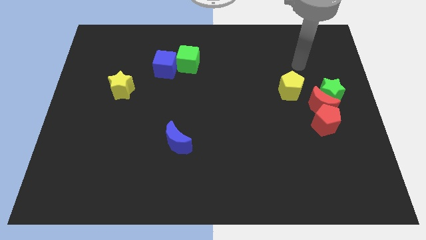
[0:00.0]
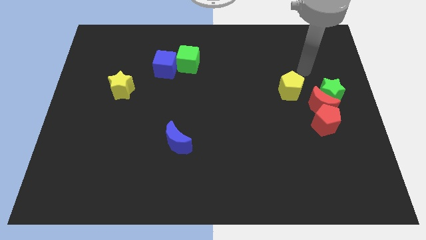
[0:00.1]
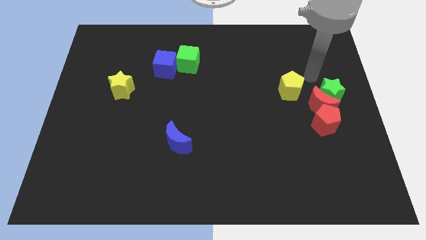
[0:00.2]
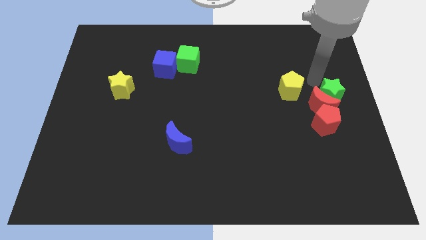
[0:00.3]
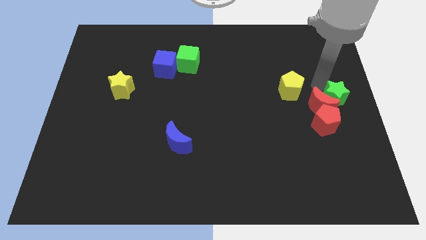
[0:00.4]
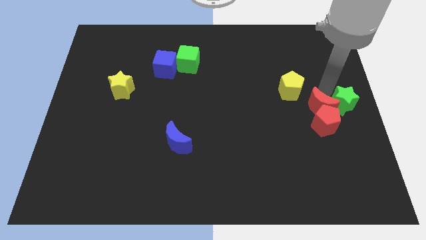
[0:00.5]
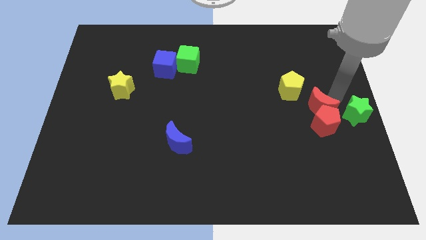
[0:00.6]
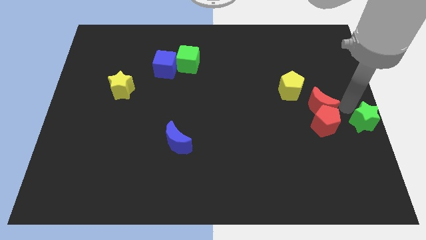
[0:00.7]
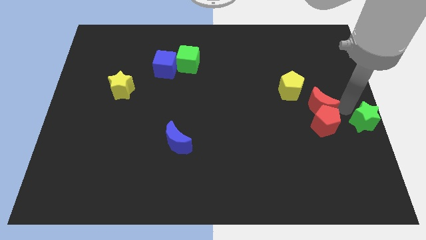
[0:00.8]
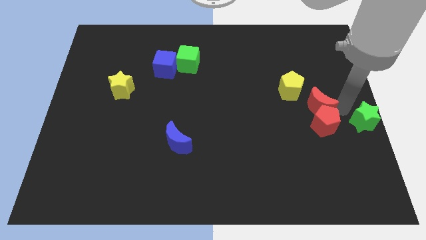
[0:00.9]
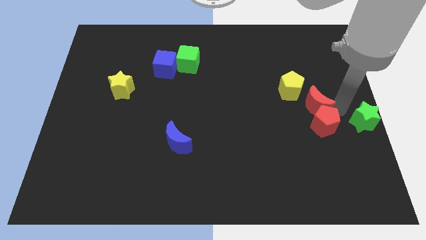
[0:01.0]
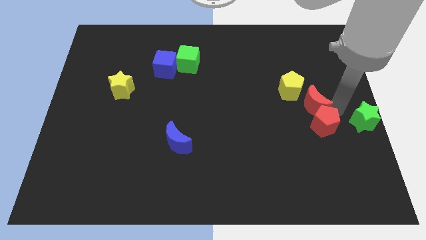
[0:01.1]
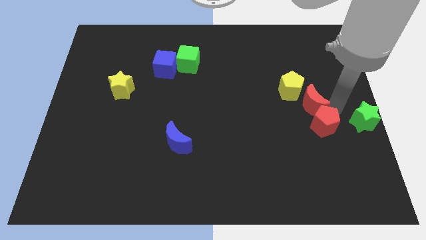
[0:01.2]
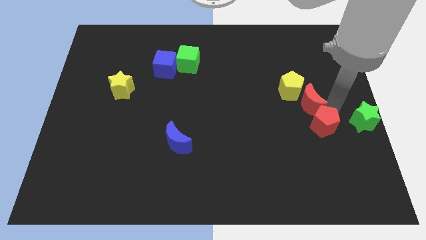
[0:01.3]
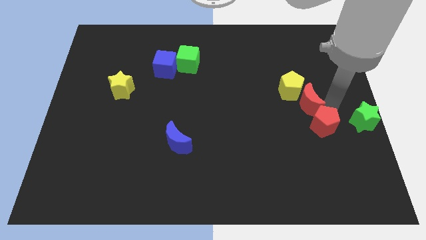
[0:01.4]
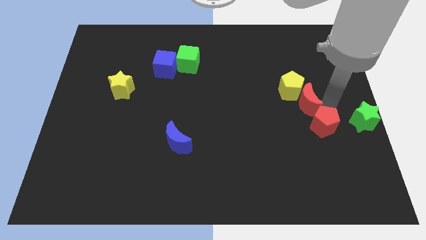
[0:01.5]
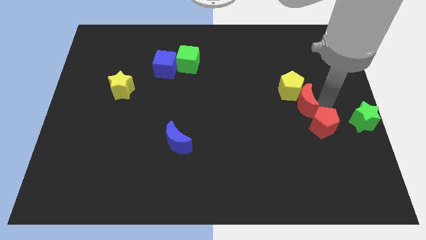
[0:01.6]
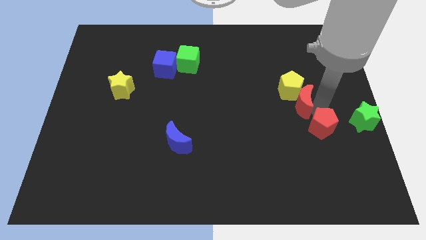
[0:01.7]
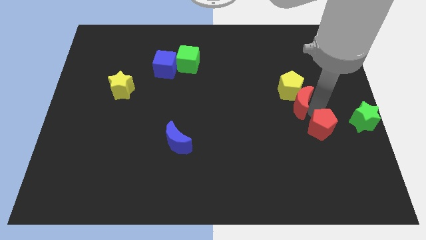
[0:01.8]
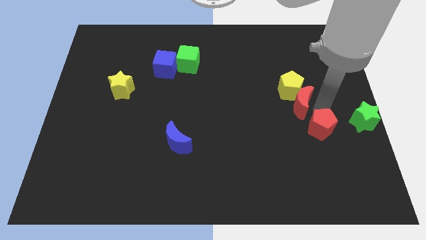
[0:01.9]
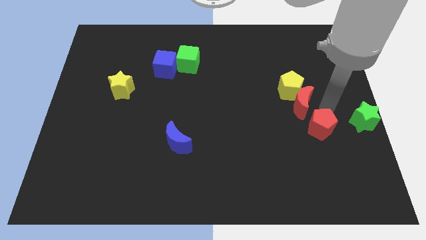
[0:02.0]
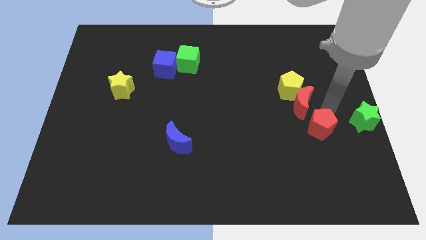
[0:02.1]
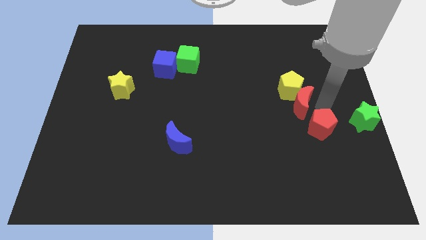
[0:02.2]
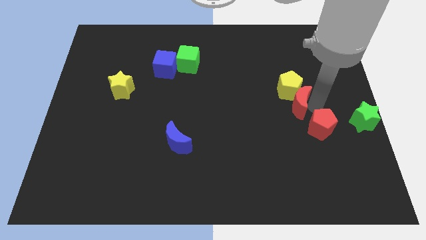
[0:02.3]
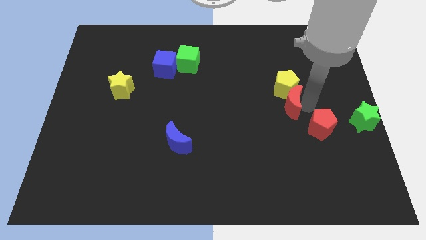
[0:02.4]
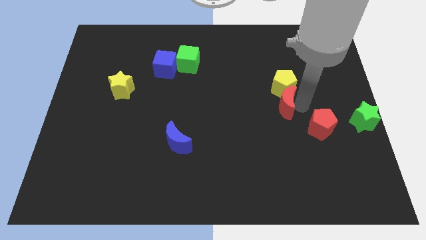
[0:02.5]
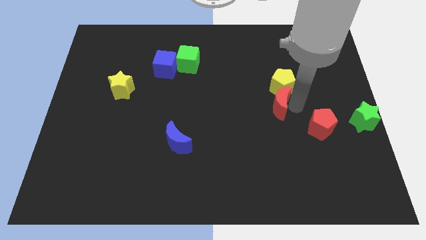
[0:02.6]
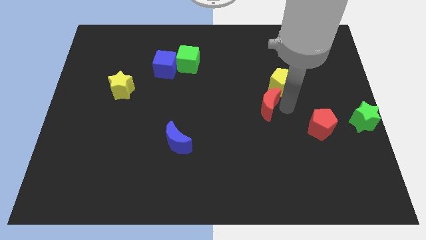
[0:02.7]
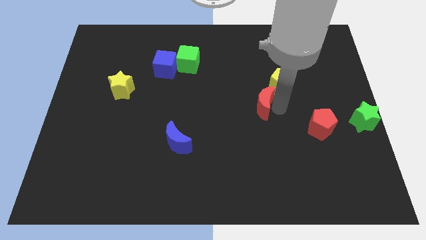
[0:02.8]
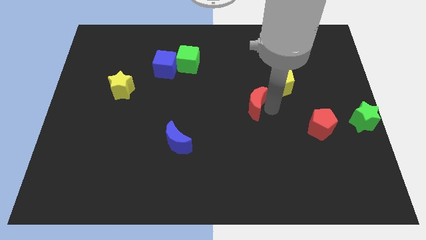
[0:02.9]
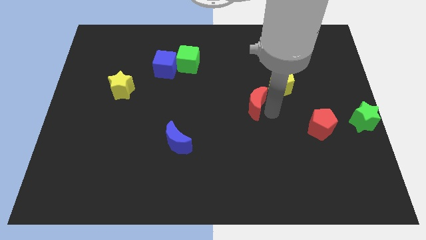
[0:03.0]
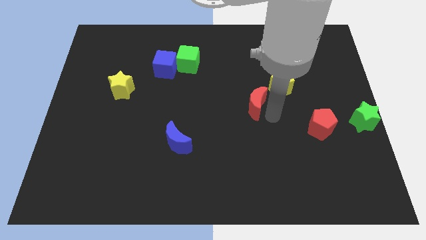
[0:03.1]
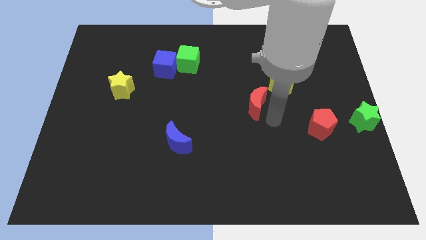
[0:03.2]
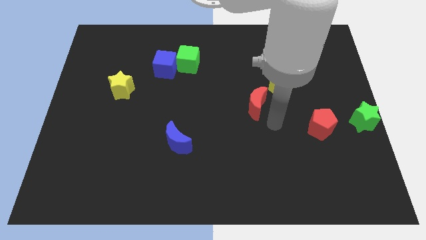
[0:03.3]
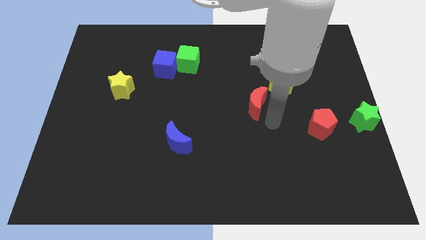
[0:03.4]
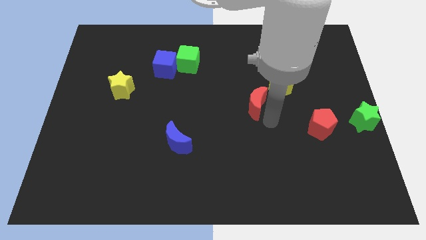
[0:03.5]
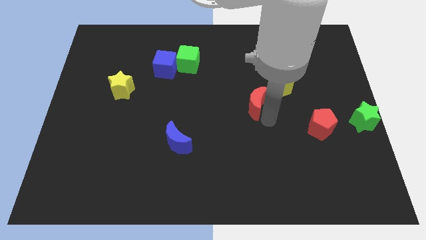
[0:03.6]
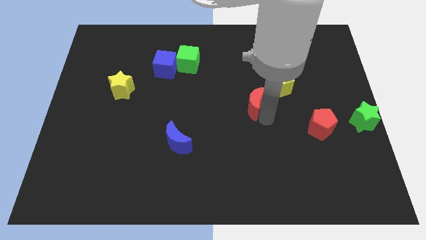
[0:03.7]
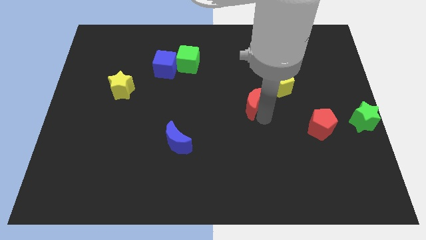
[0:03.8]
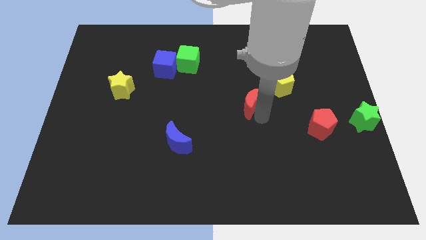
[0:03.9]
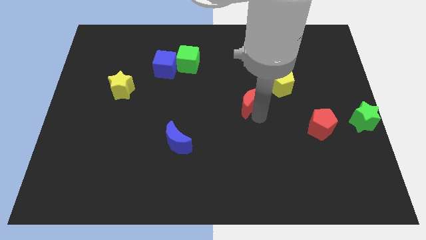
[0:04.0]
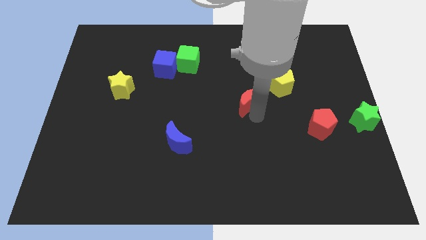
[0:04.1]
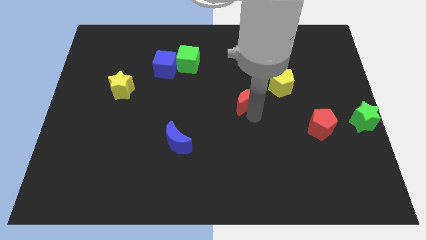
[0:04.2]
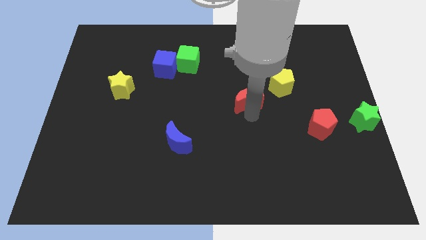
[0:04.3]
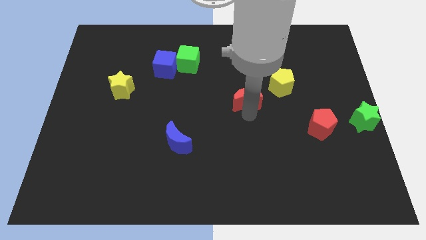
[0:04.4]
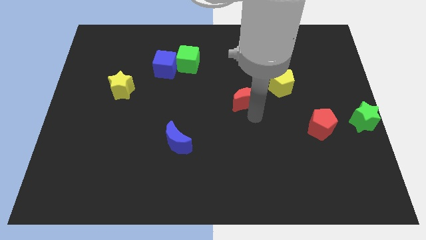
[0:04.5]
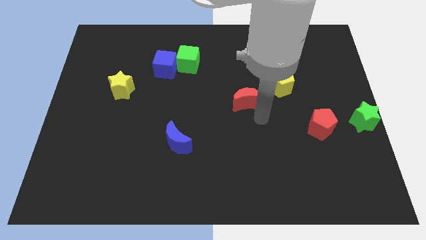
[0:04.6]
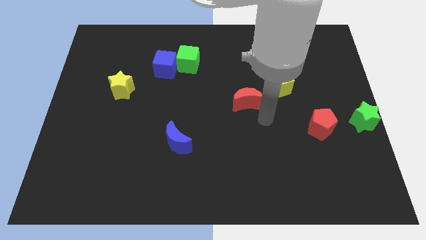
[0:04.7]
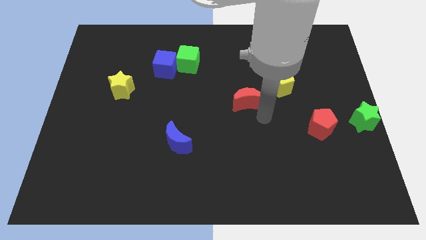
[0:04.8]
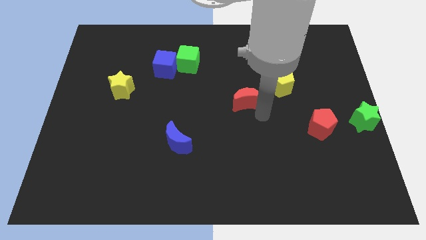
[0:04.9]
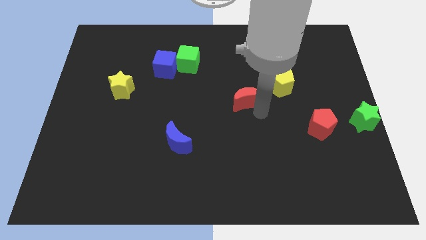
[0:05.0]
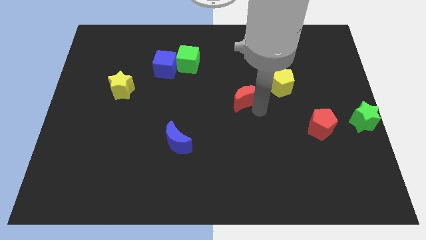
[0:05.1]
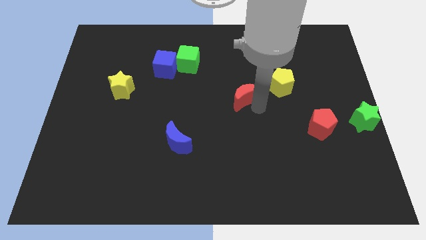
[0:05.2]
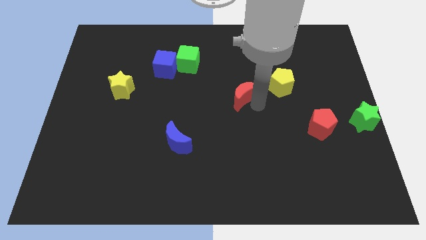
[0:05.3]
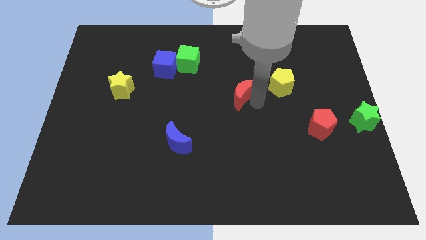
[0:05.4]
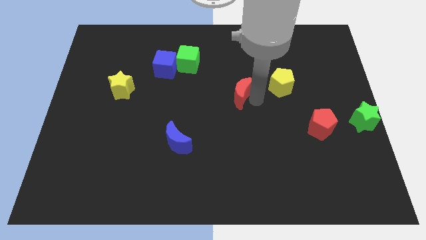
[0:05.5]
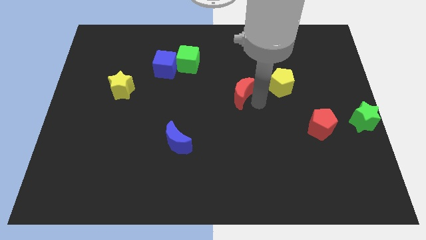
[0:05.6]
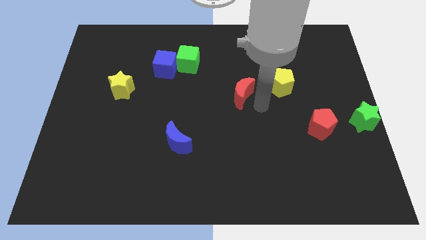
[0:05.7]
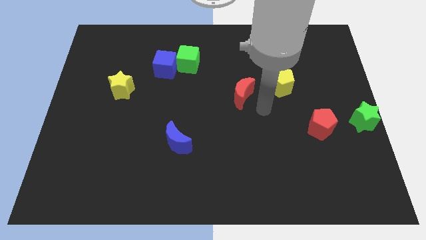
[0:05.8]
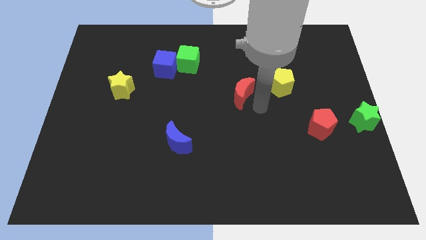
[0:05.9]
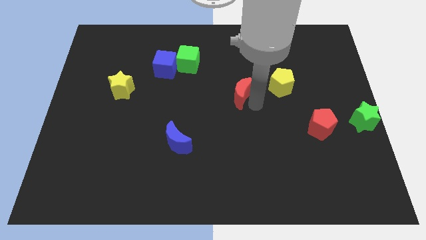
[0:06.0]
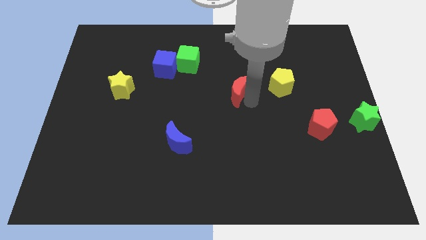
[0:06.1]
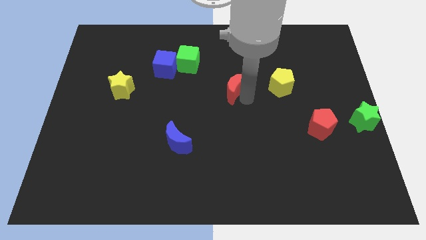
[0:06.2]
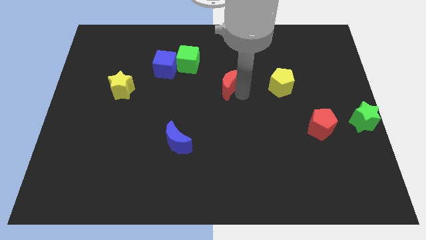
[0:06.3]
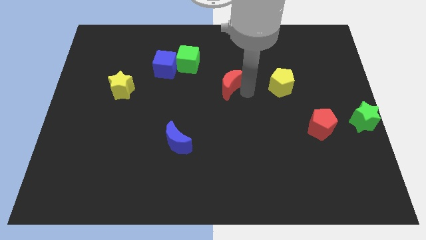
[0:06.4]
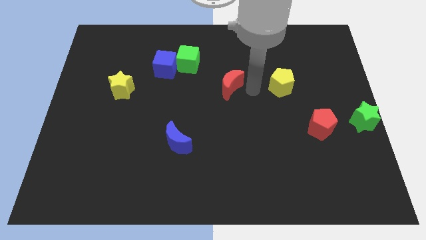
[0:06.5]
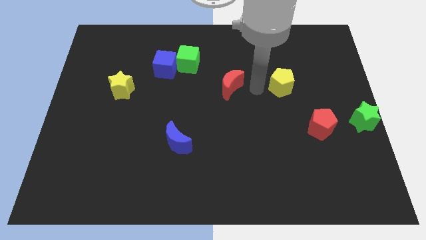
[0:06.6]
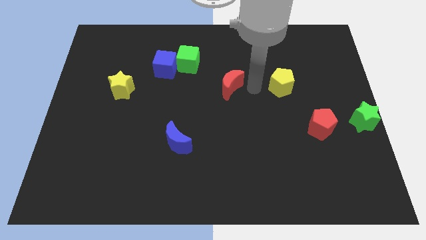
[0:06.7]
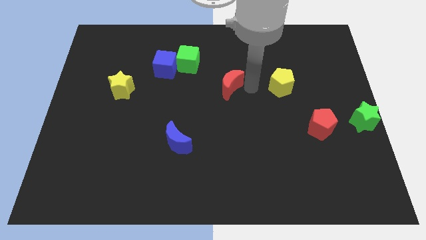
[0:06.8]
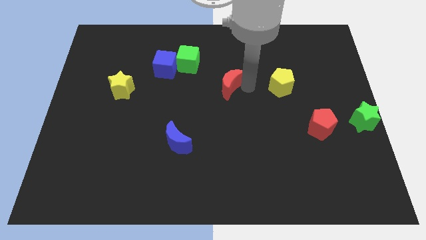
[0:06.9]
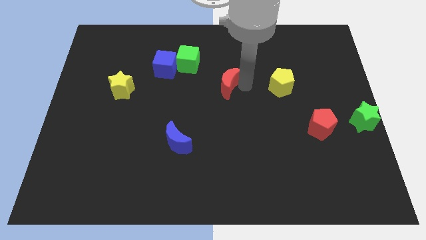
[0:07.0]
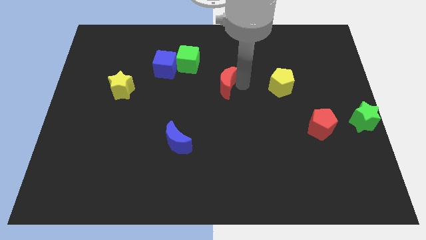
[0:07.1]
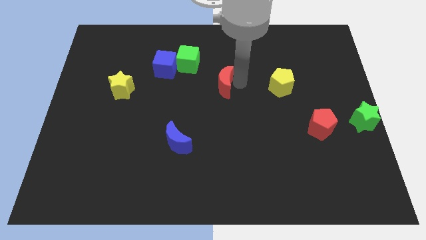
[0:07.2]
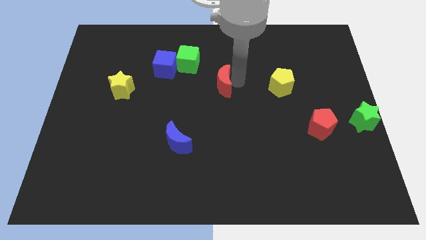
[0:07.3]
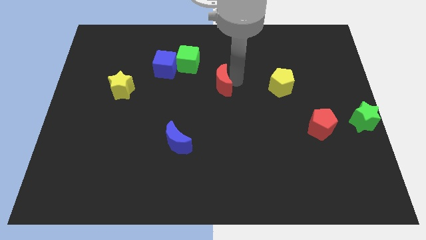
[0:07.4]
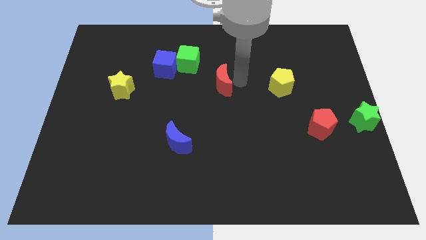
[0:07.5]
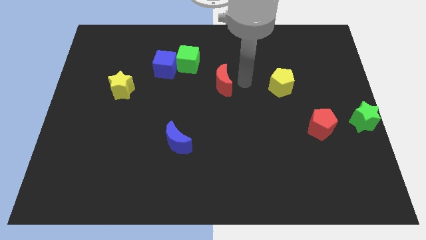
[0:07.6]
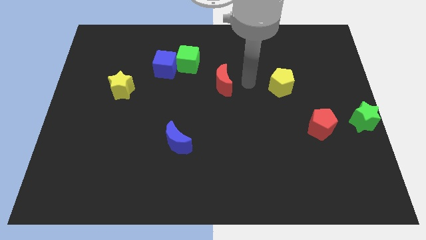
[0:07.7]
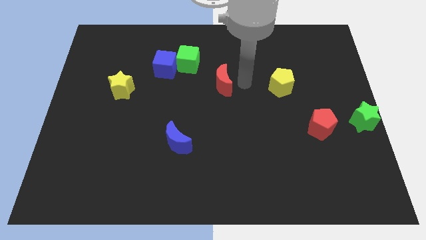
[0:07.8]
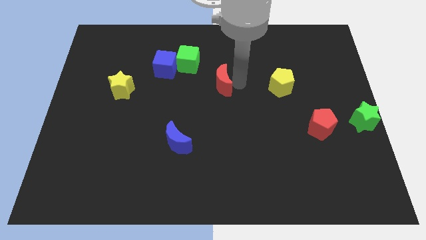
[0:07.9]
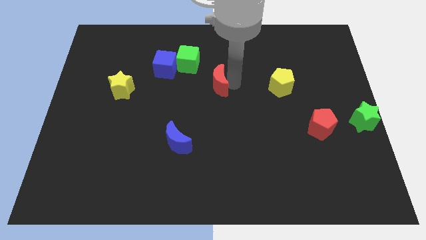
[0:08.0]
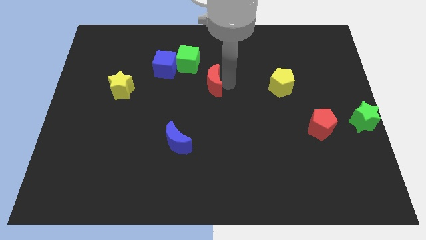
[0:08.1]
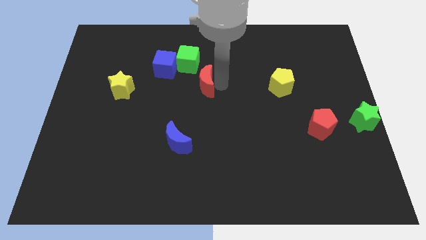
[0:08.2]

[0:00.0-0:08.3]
move the red moon to the bottom right of the blue cube
